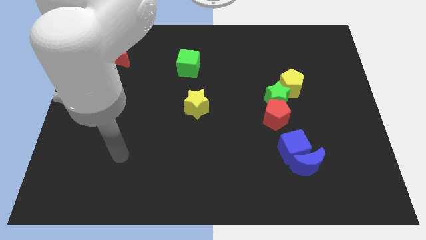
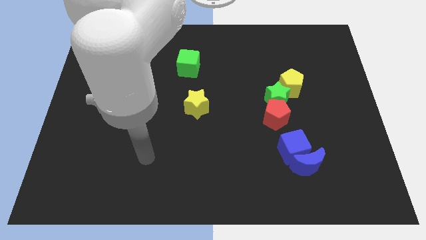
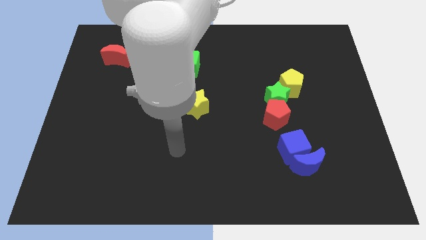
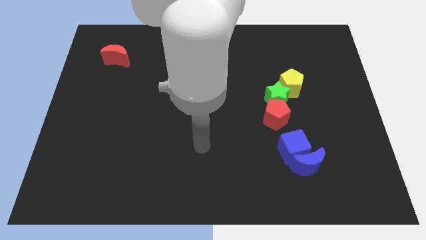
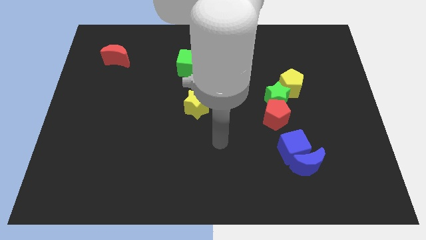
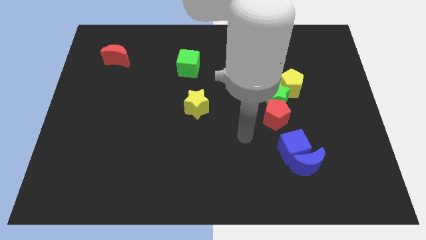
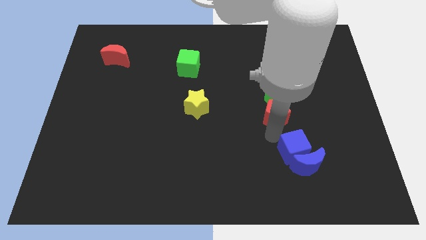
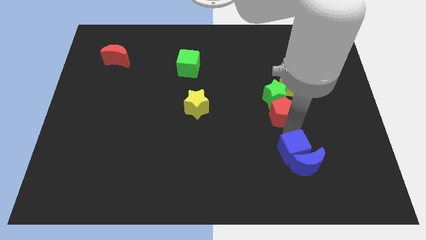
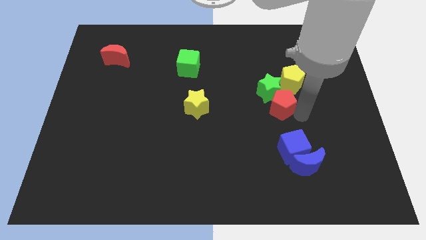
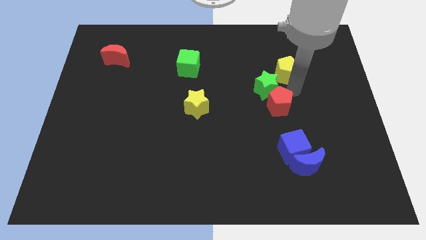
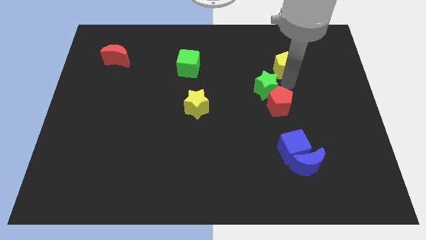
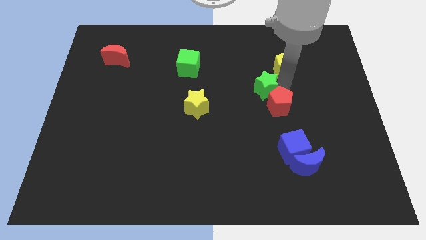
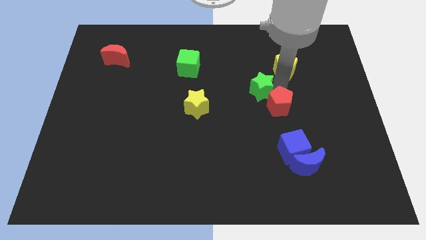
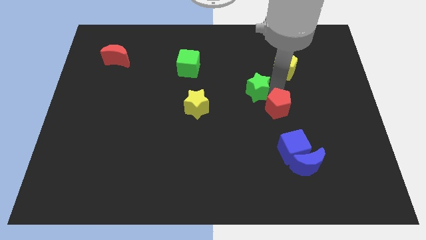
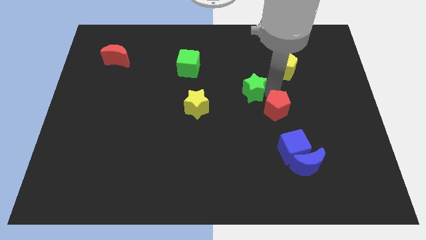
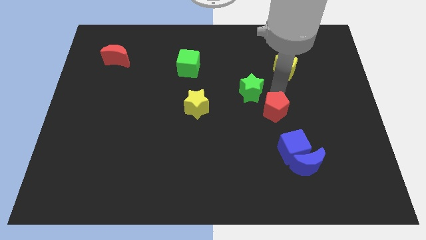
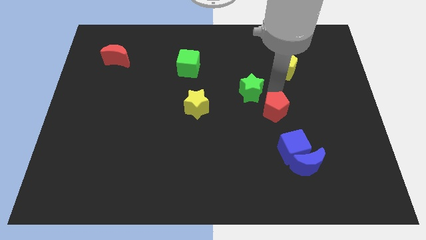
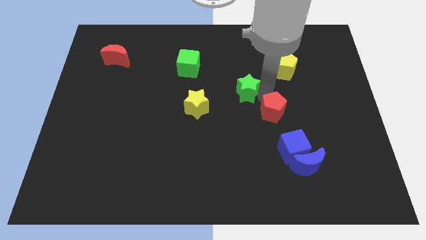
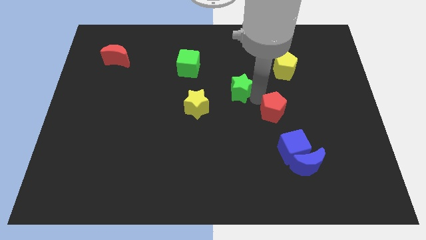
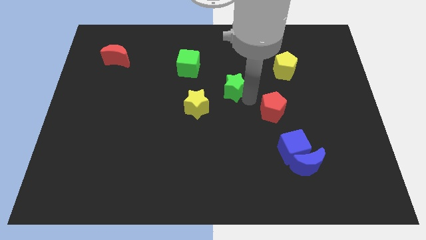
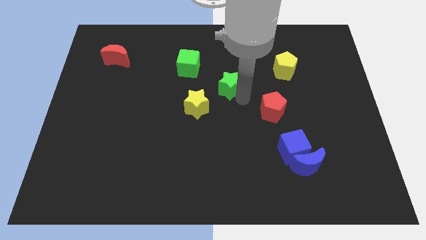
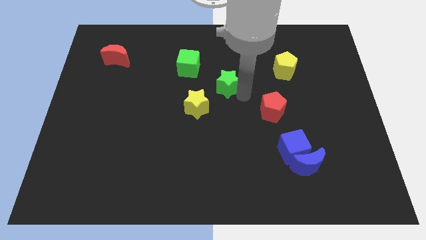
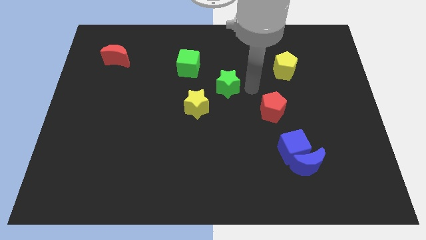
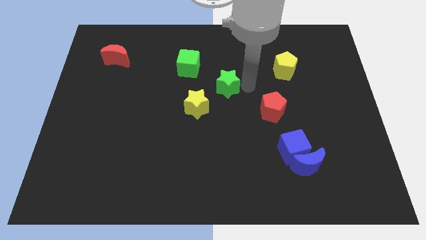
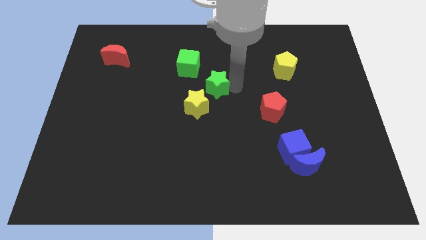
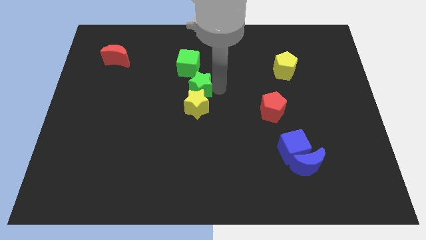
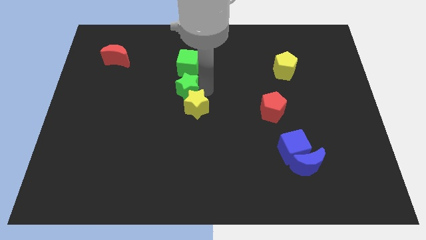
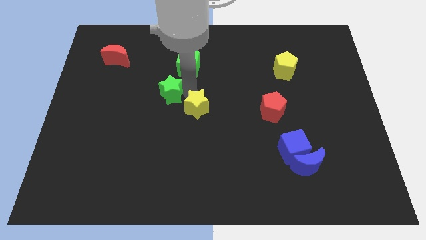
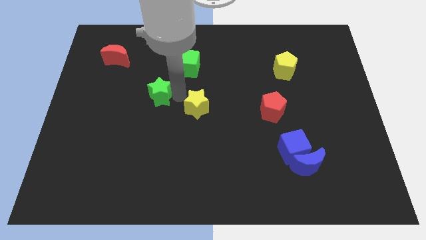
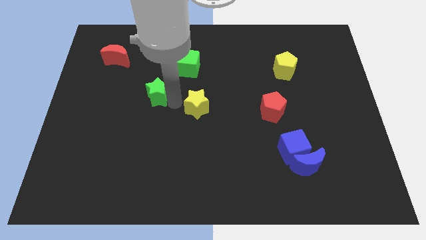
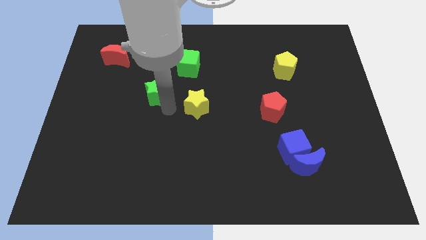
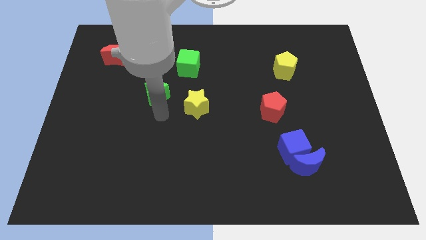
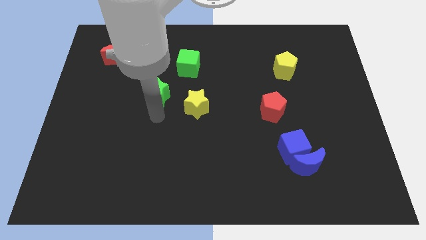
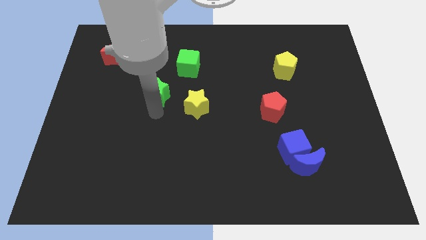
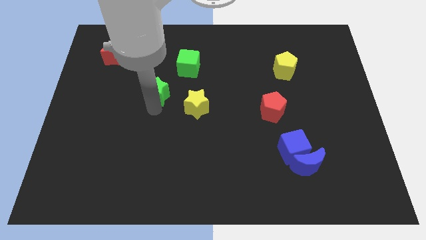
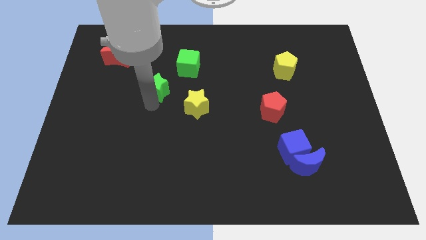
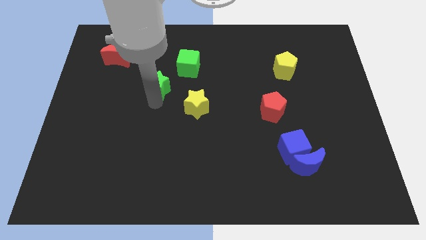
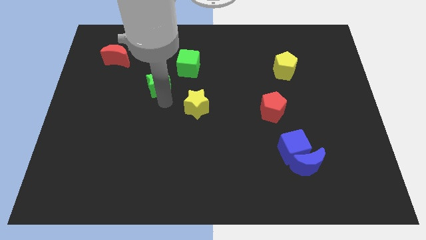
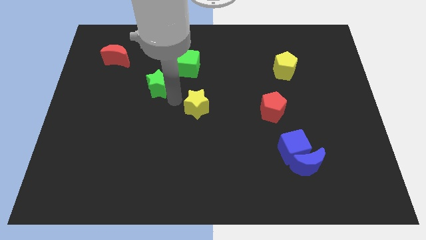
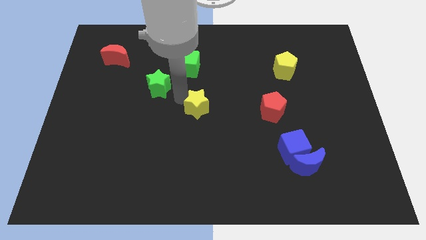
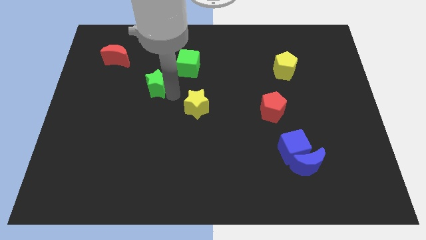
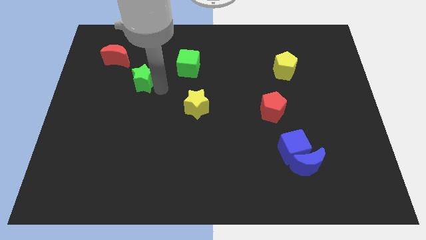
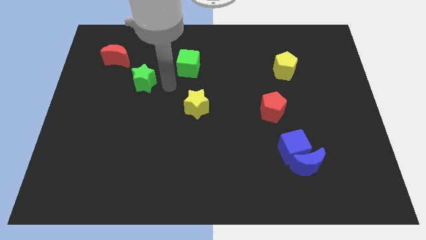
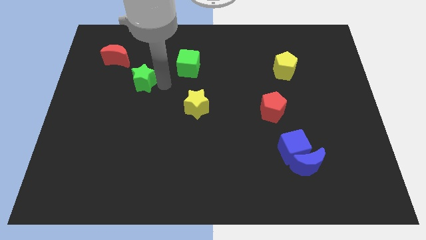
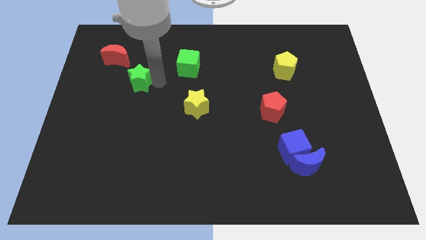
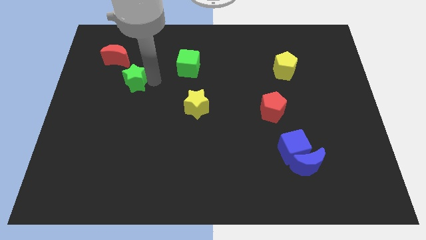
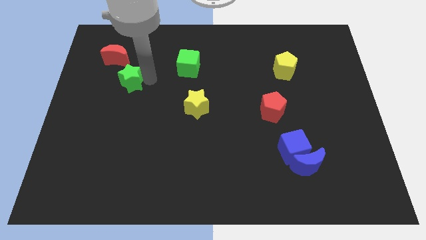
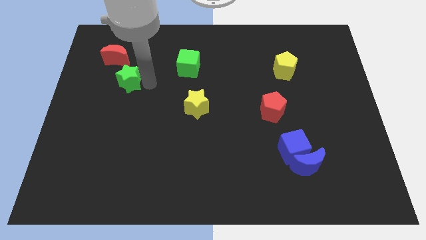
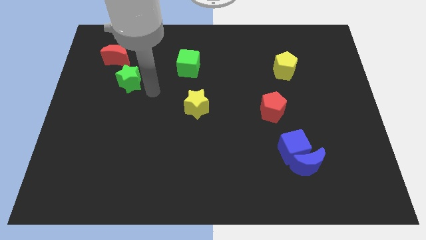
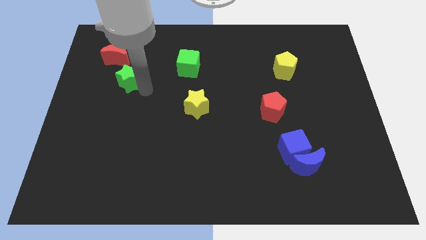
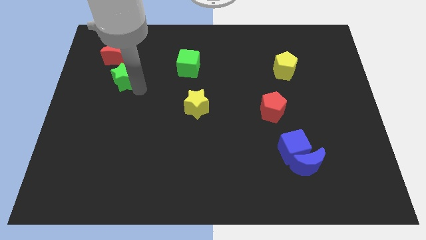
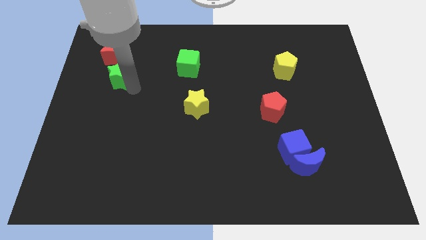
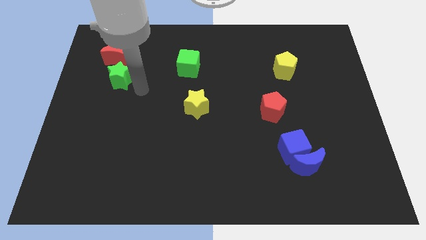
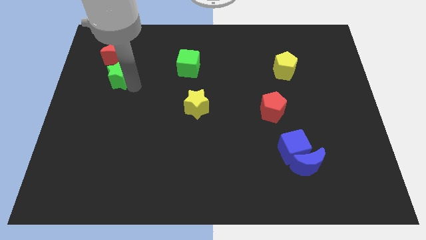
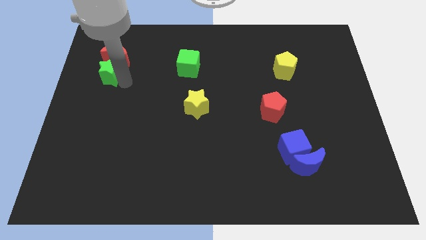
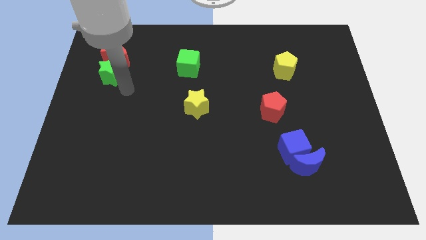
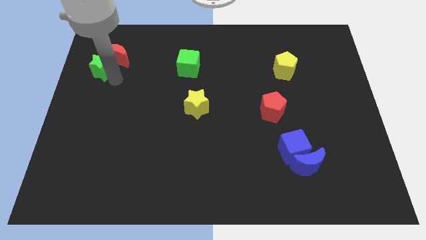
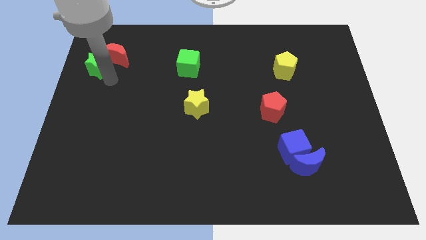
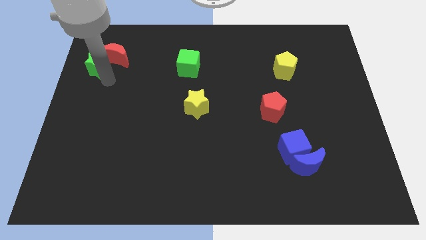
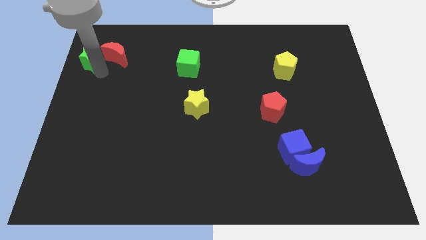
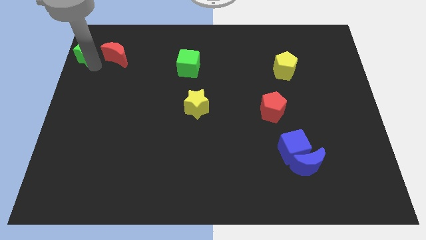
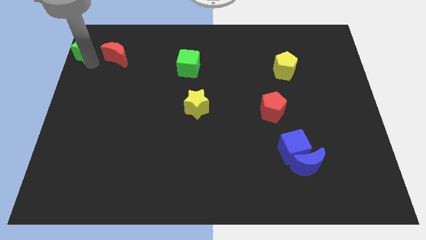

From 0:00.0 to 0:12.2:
move the green star to the top left of the board
